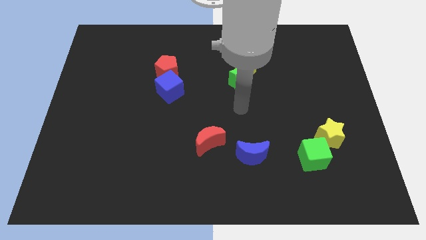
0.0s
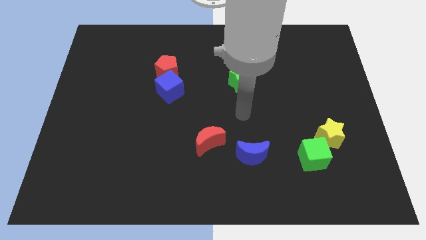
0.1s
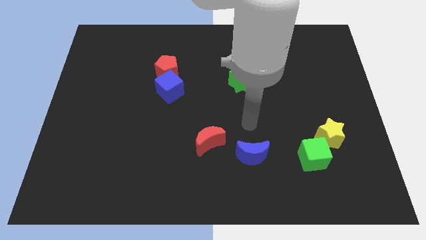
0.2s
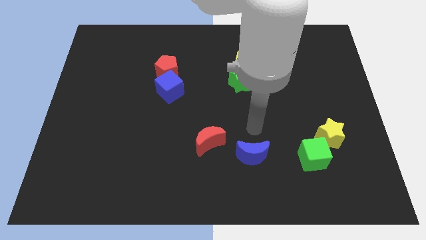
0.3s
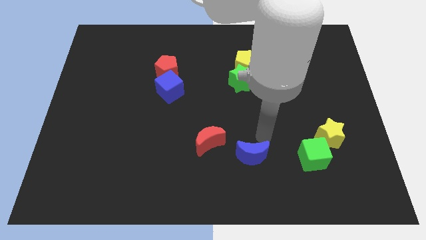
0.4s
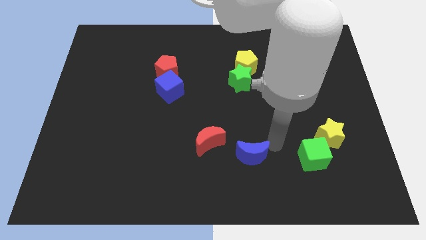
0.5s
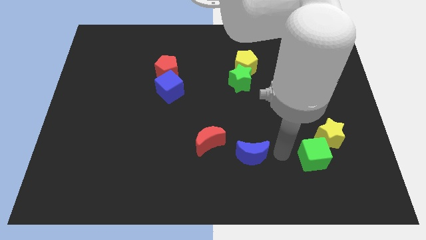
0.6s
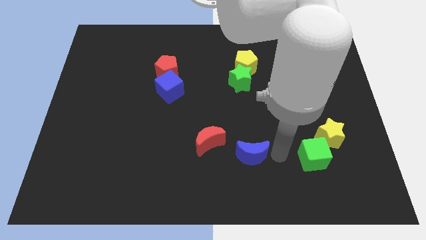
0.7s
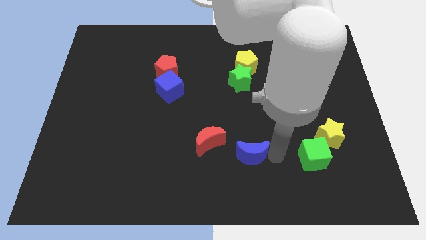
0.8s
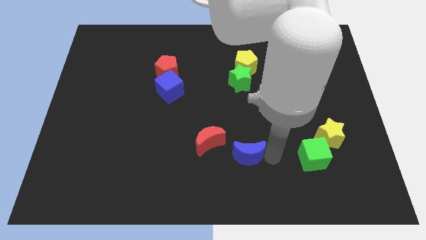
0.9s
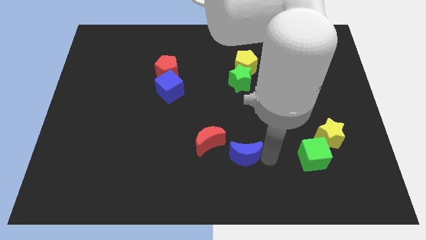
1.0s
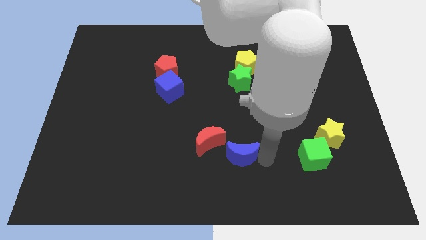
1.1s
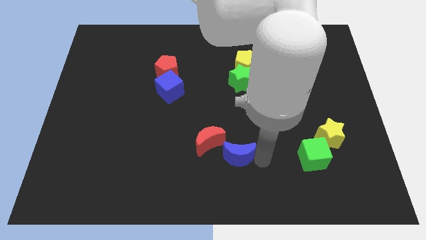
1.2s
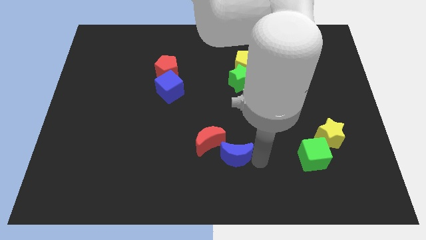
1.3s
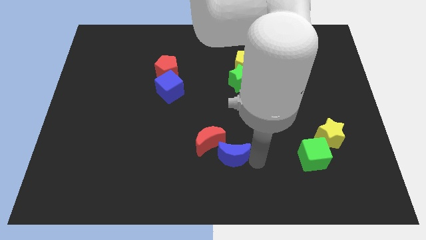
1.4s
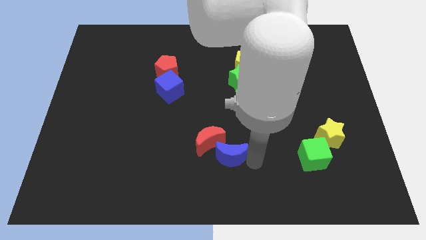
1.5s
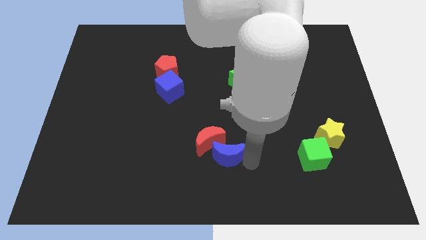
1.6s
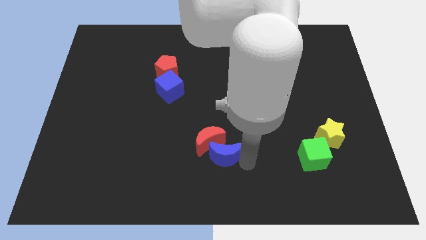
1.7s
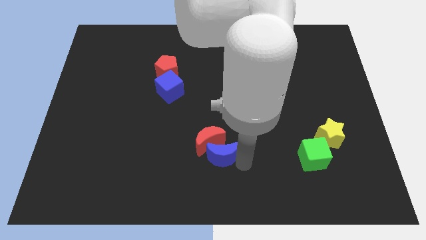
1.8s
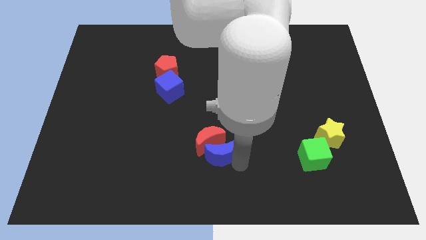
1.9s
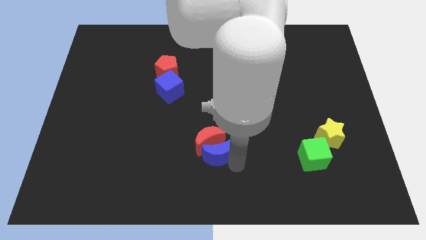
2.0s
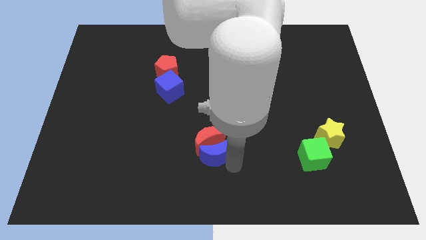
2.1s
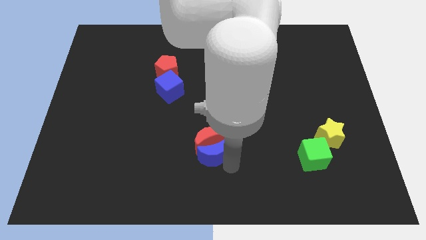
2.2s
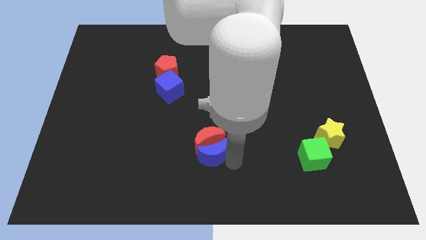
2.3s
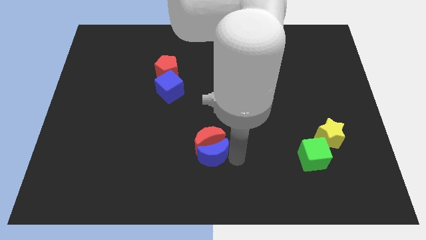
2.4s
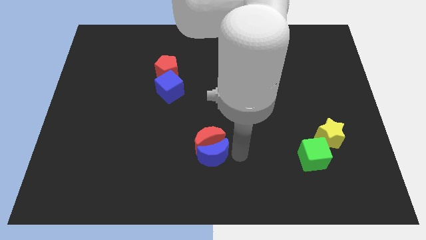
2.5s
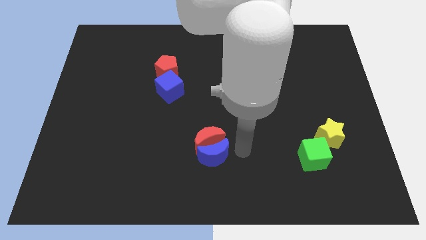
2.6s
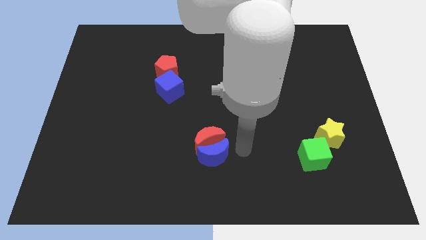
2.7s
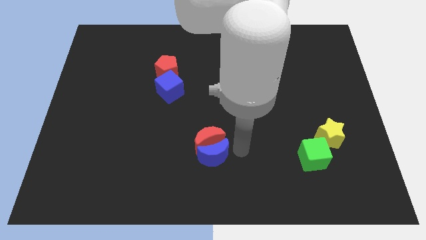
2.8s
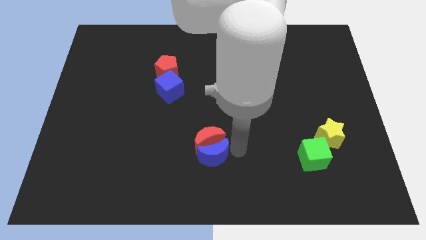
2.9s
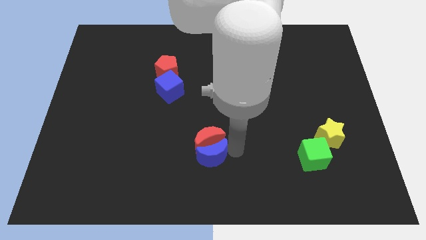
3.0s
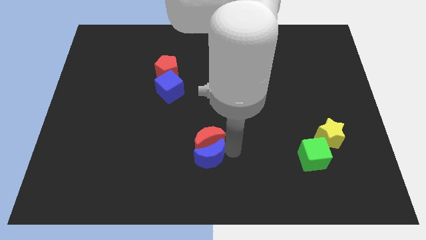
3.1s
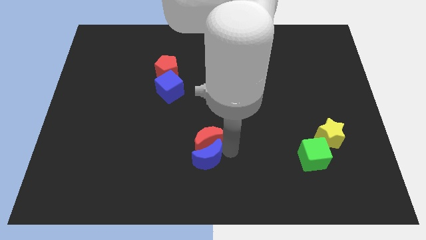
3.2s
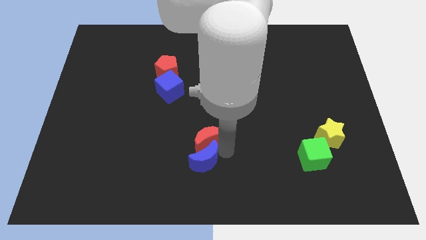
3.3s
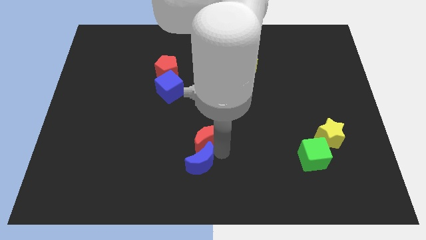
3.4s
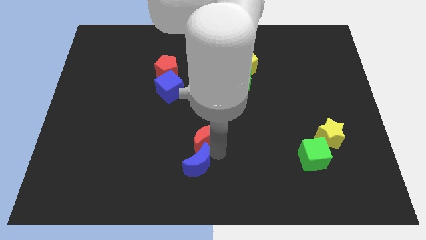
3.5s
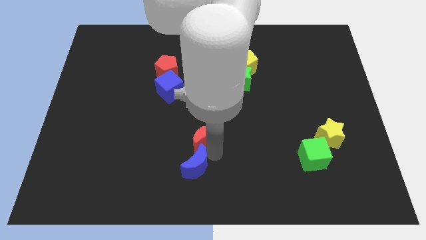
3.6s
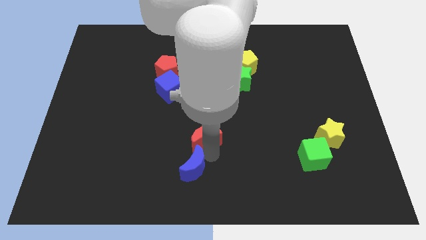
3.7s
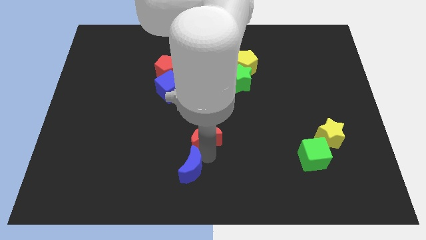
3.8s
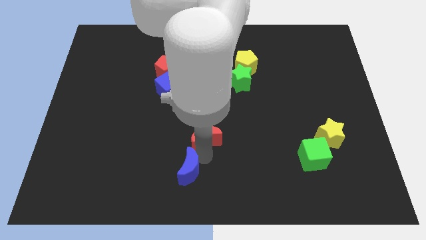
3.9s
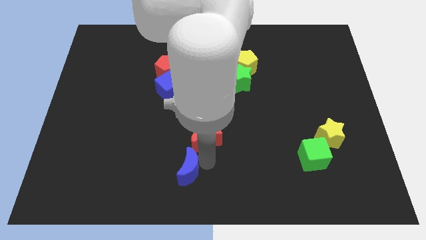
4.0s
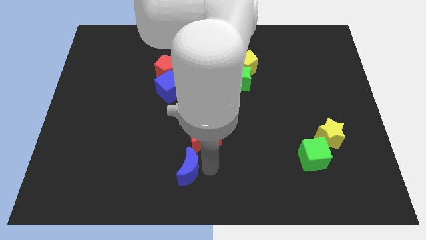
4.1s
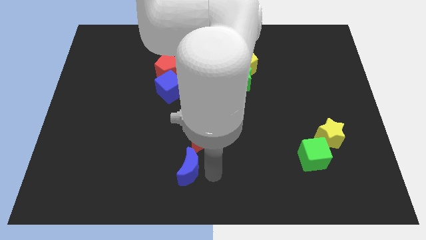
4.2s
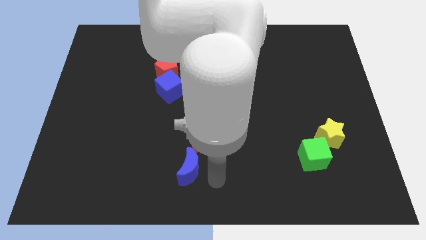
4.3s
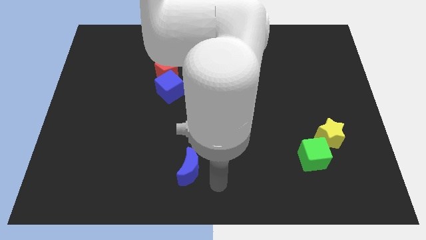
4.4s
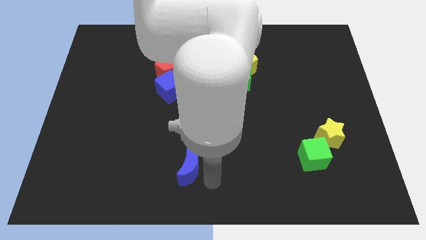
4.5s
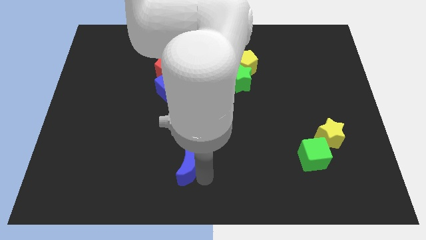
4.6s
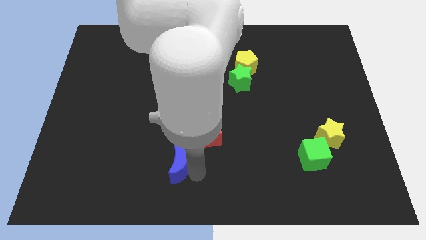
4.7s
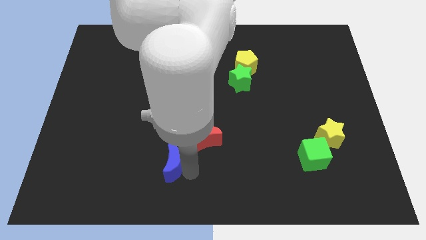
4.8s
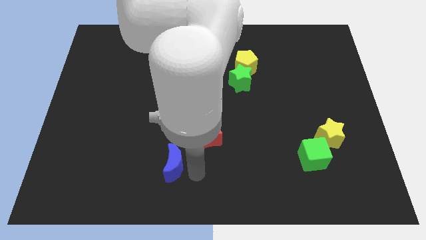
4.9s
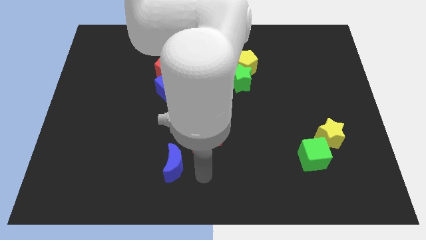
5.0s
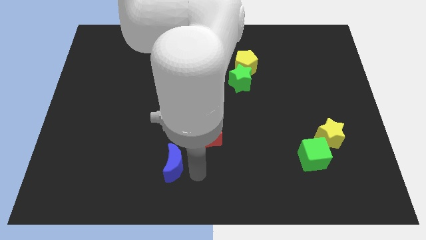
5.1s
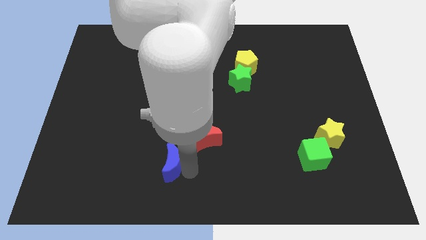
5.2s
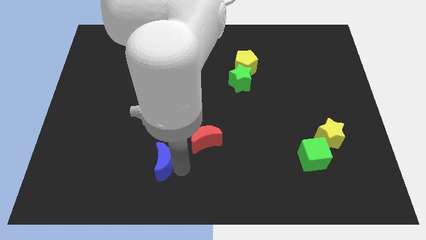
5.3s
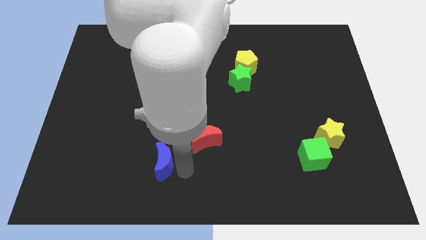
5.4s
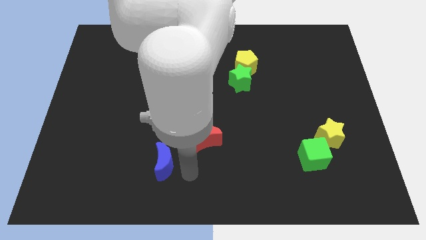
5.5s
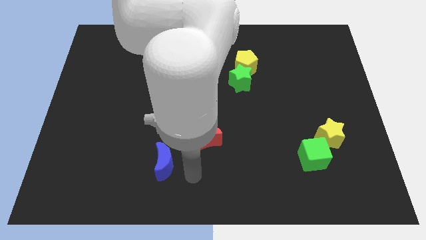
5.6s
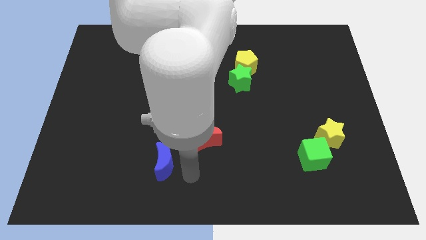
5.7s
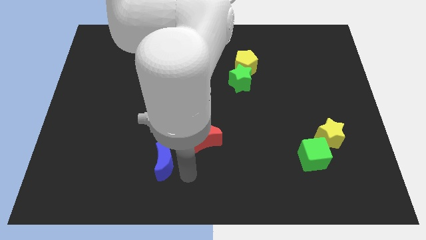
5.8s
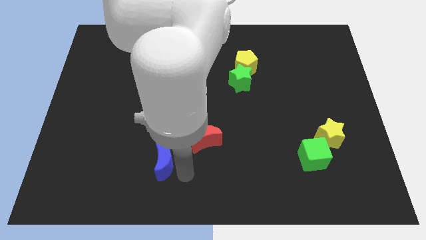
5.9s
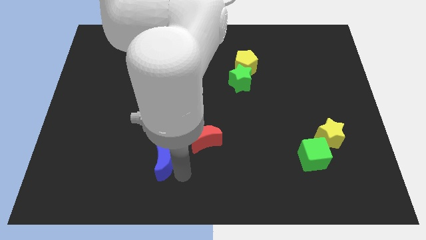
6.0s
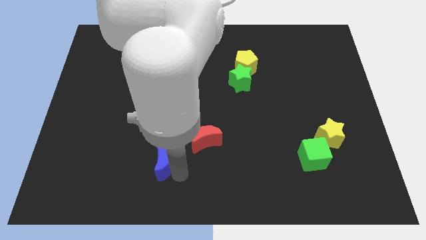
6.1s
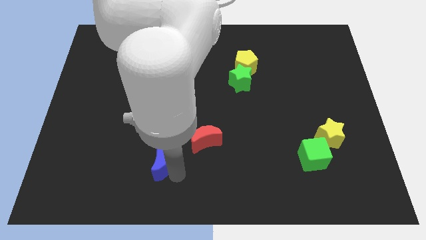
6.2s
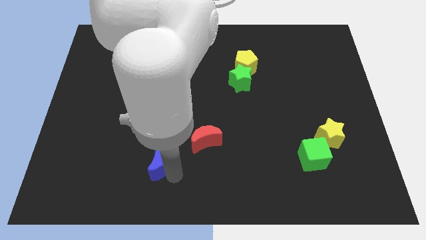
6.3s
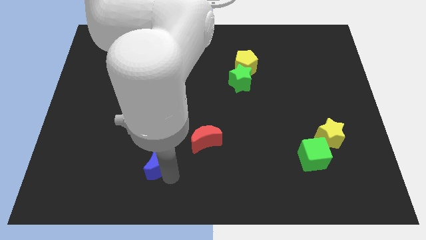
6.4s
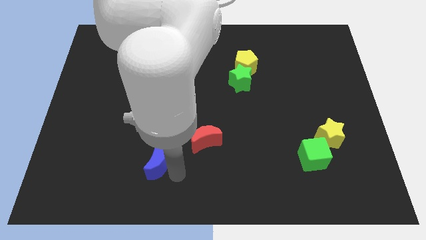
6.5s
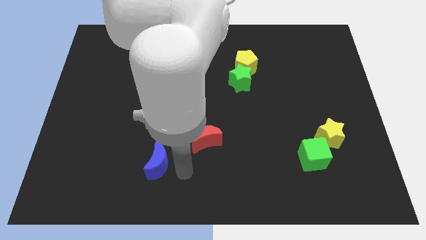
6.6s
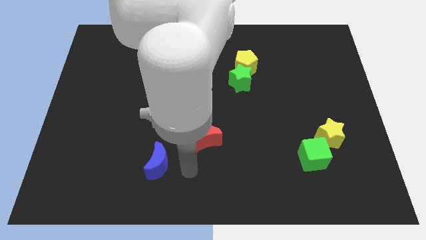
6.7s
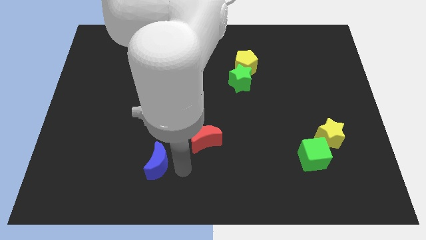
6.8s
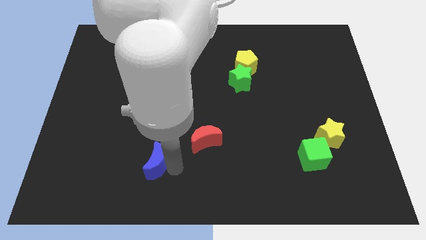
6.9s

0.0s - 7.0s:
move the blue moon to the left

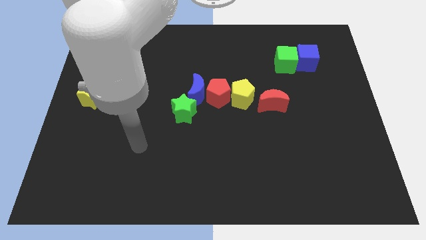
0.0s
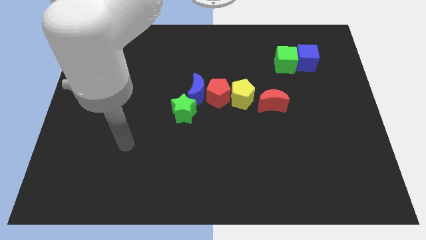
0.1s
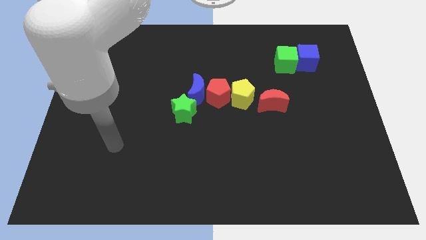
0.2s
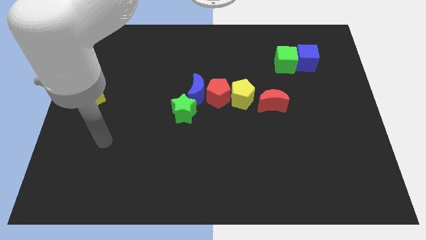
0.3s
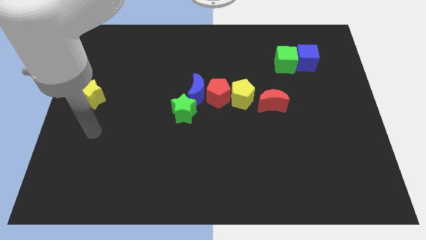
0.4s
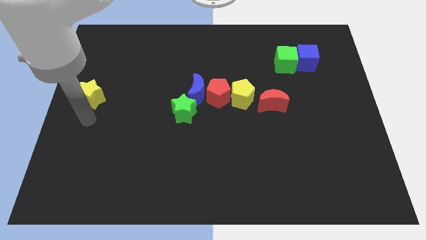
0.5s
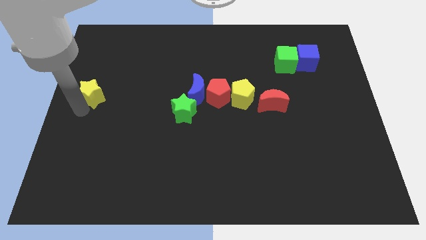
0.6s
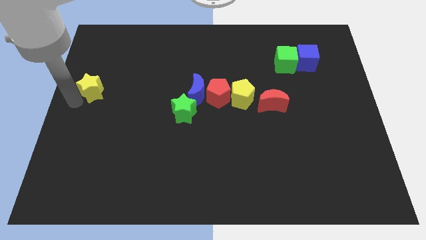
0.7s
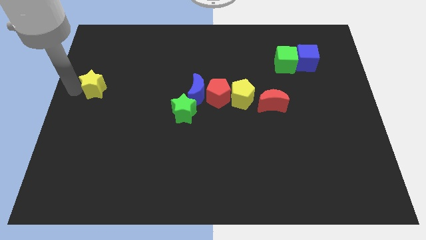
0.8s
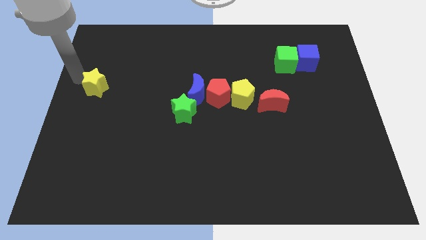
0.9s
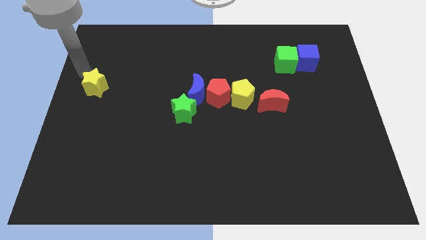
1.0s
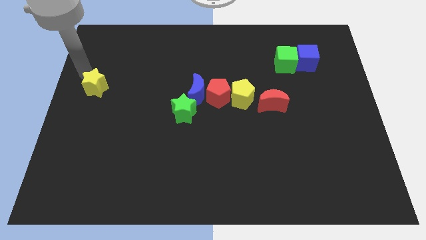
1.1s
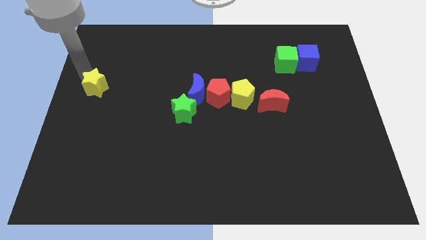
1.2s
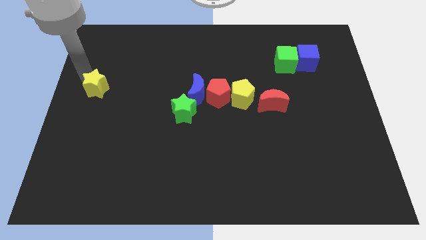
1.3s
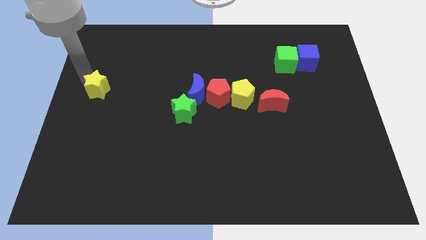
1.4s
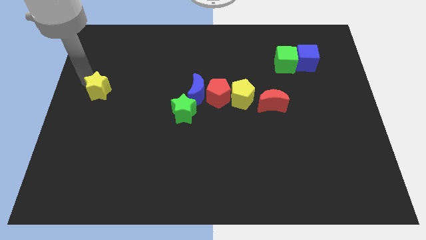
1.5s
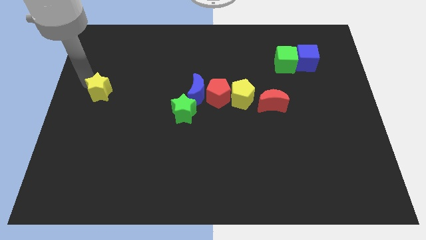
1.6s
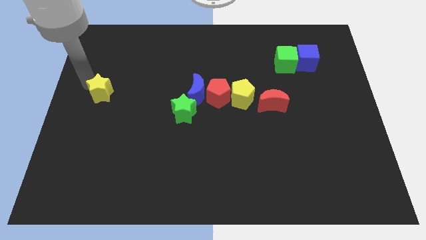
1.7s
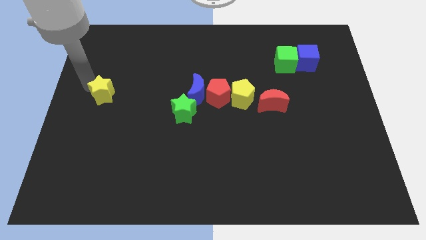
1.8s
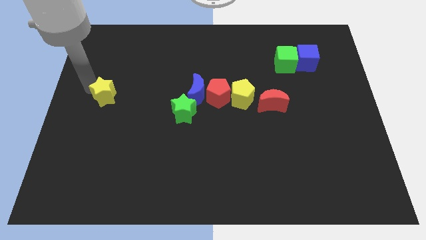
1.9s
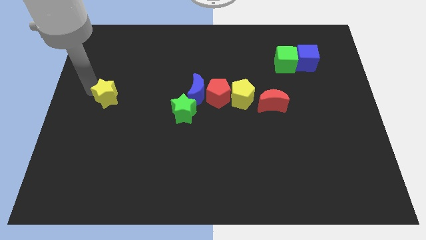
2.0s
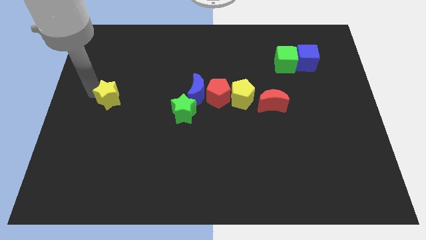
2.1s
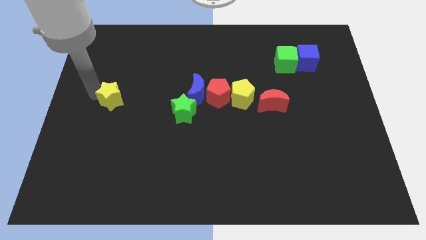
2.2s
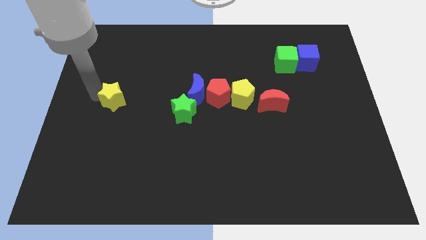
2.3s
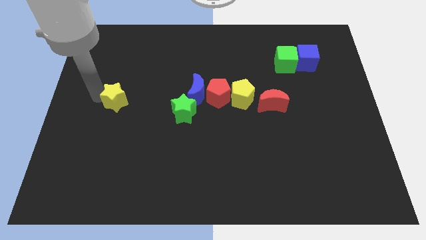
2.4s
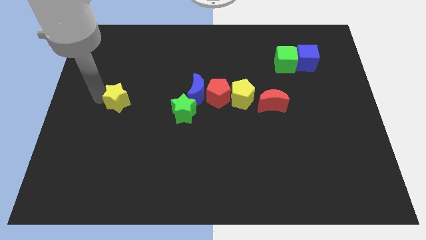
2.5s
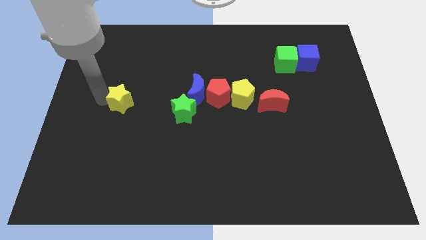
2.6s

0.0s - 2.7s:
move the yellow star right slightly
